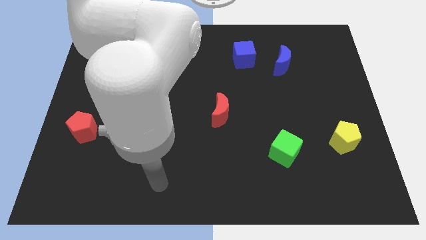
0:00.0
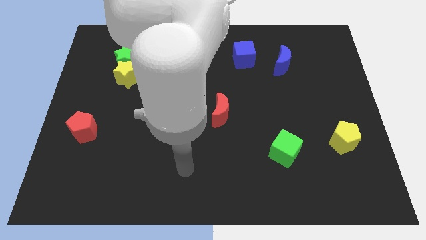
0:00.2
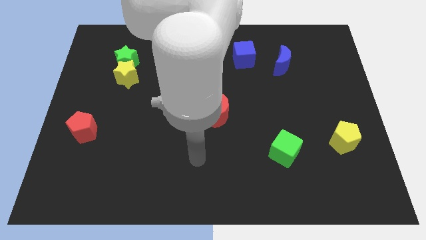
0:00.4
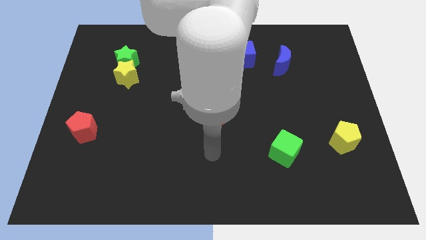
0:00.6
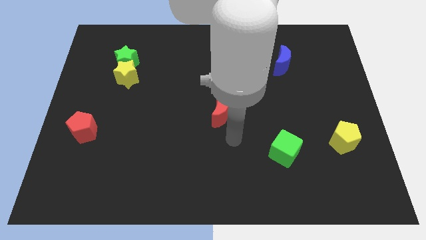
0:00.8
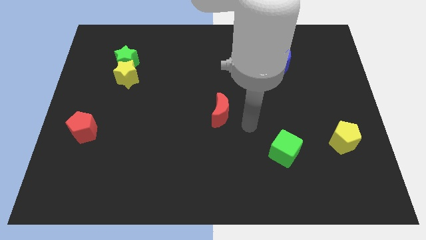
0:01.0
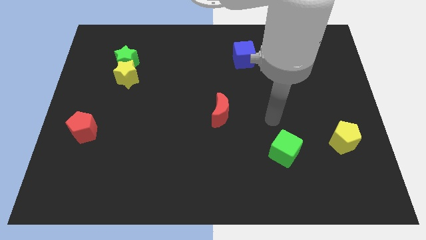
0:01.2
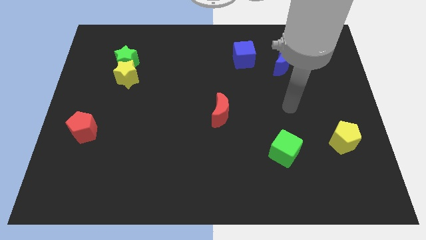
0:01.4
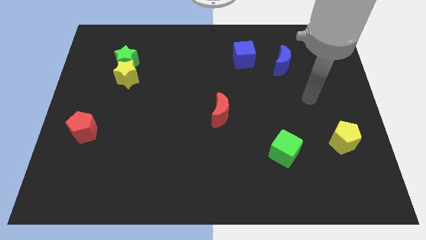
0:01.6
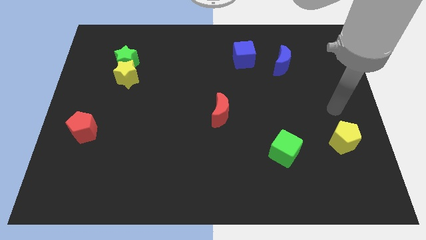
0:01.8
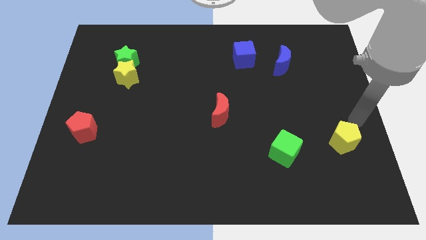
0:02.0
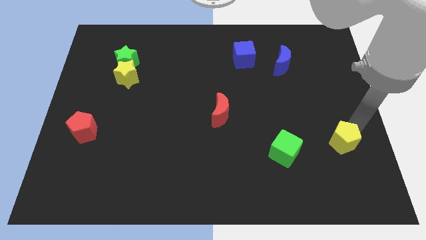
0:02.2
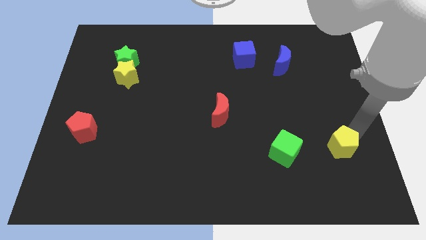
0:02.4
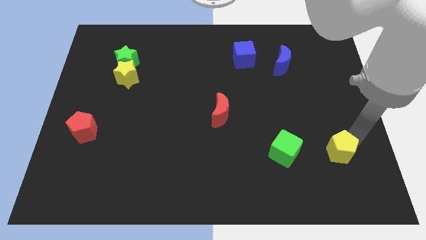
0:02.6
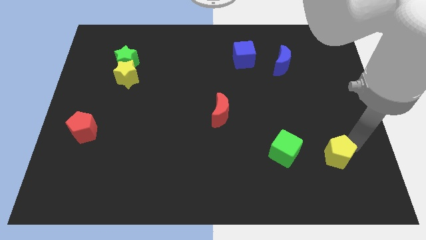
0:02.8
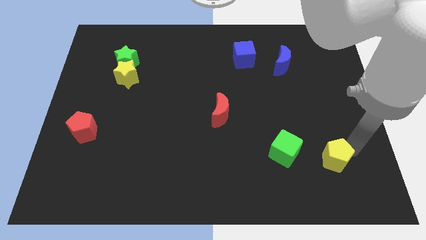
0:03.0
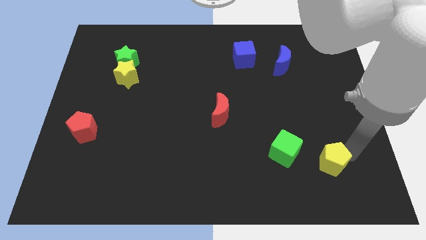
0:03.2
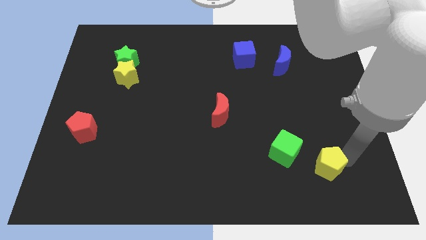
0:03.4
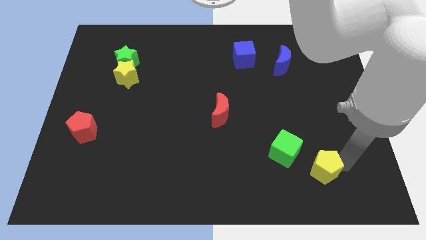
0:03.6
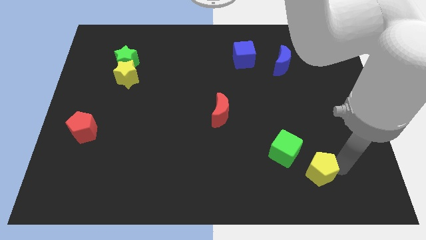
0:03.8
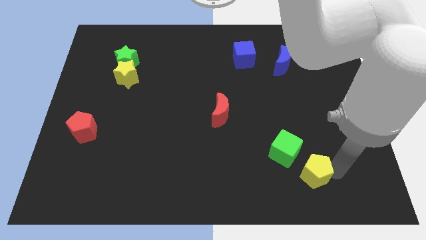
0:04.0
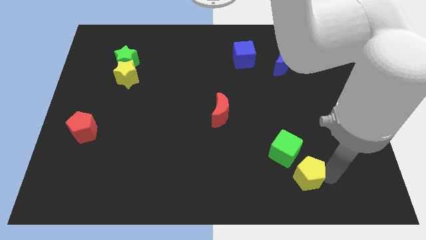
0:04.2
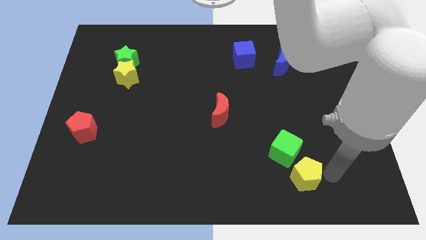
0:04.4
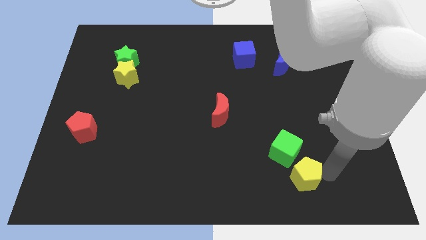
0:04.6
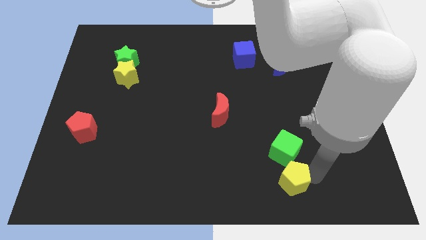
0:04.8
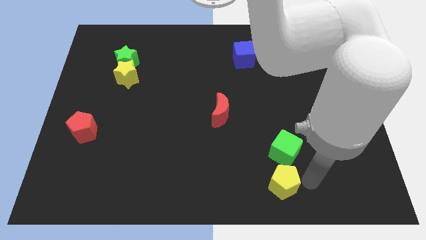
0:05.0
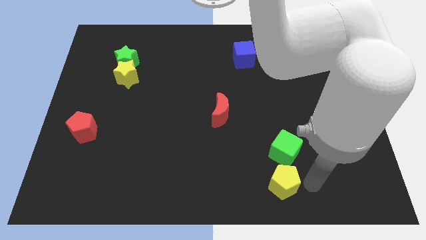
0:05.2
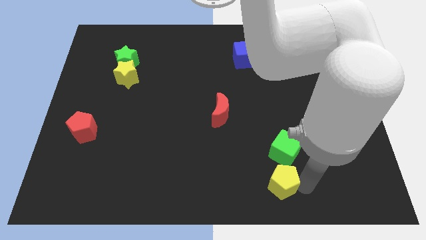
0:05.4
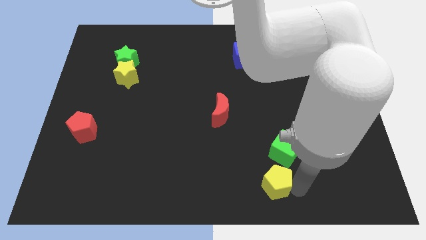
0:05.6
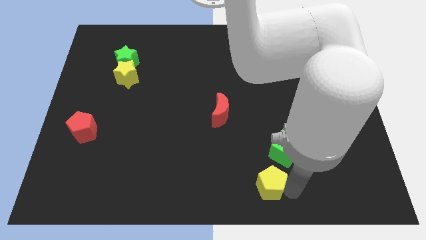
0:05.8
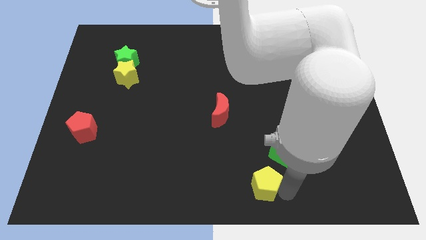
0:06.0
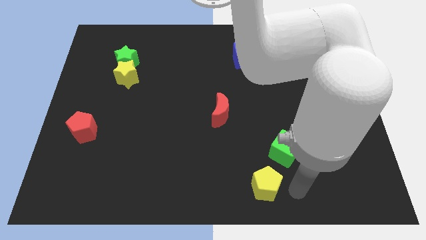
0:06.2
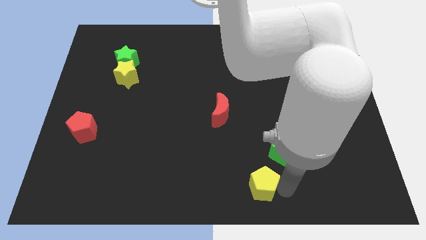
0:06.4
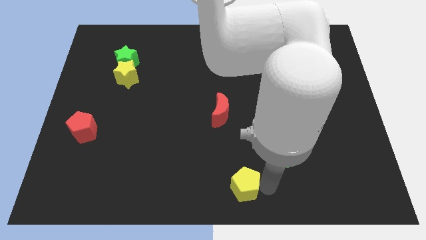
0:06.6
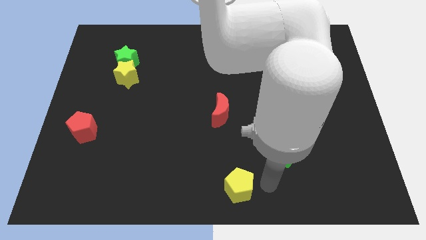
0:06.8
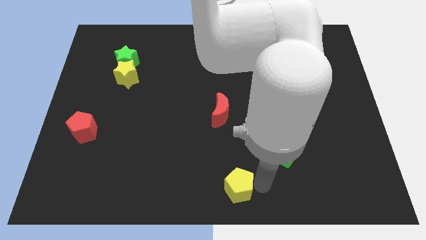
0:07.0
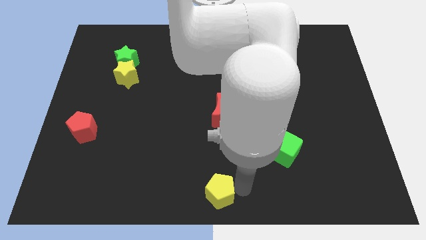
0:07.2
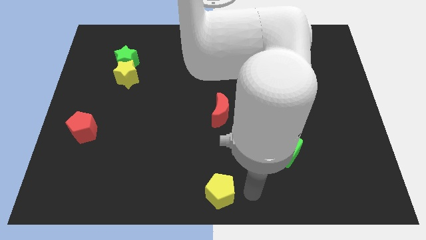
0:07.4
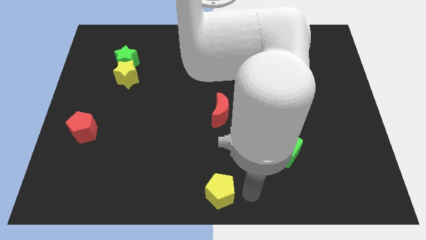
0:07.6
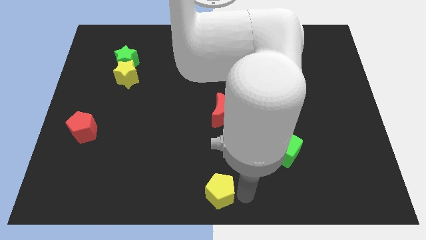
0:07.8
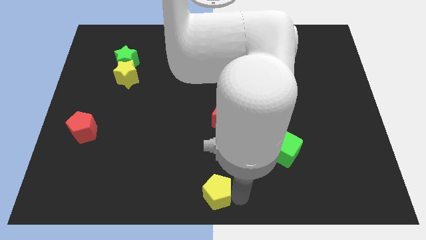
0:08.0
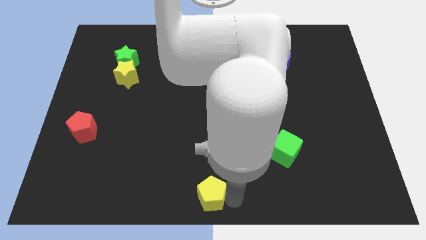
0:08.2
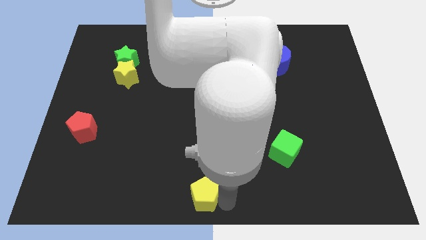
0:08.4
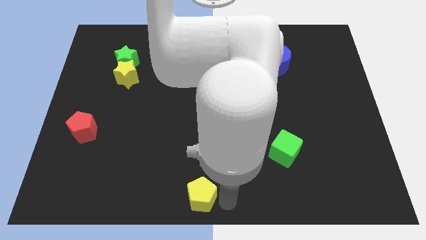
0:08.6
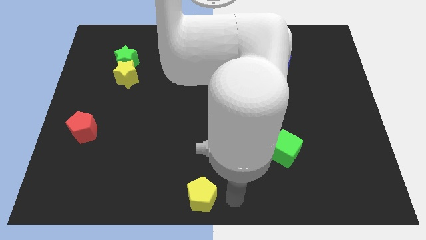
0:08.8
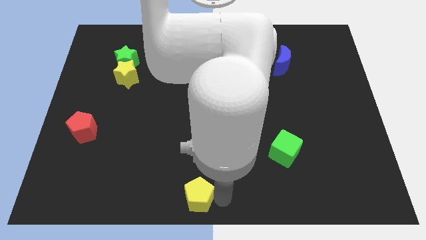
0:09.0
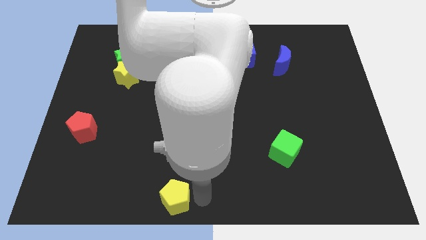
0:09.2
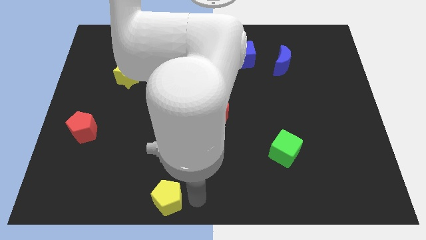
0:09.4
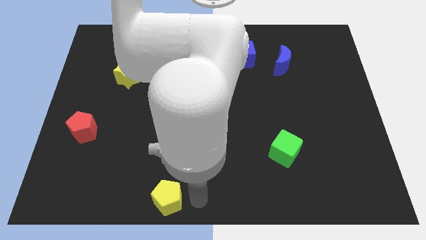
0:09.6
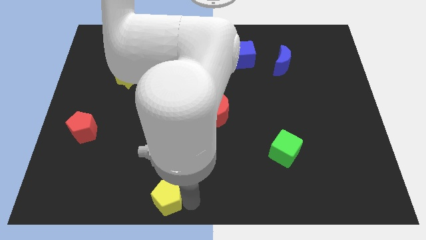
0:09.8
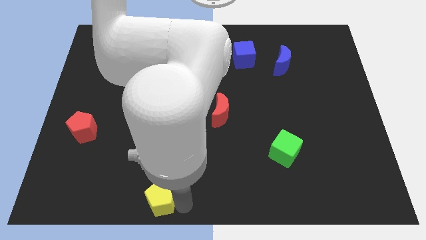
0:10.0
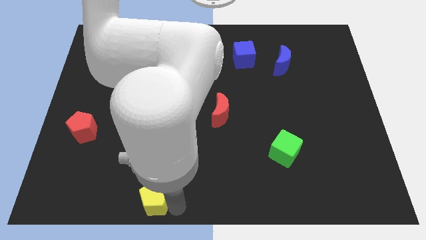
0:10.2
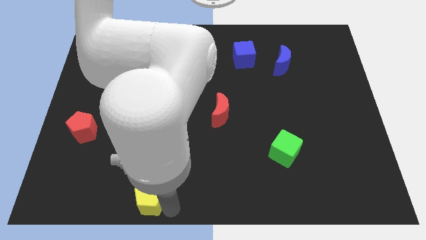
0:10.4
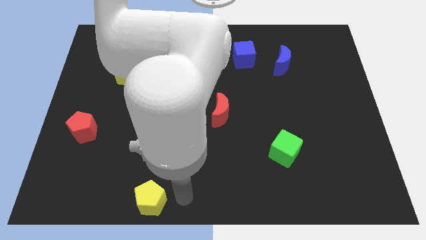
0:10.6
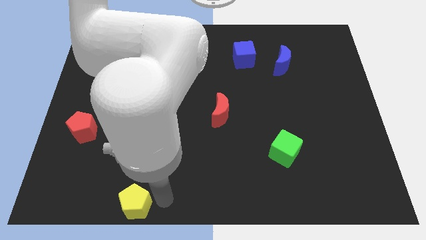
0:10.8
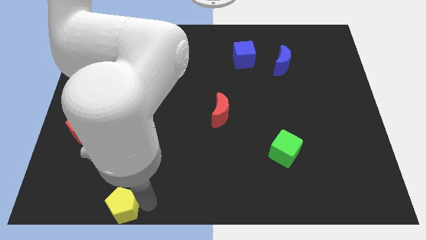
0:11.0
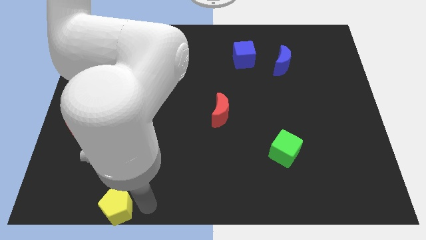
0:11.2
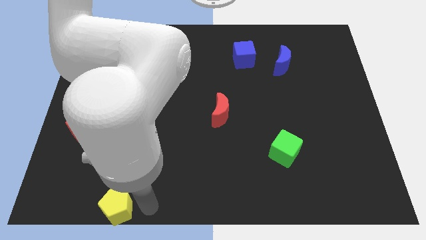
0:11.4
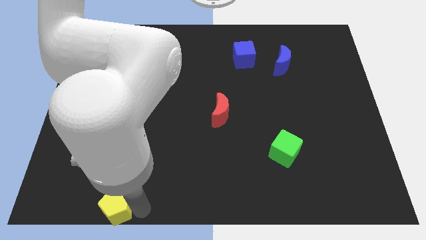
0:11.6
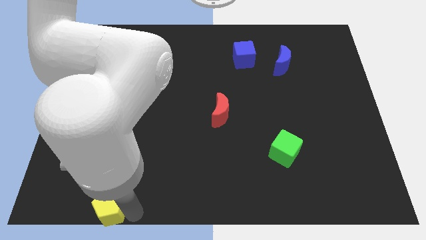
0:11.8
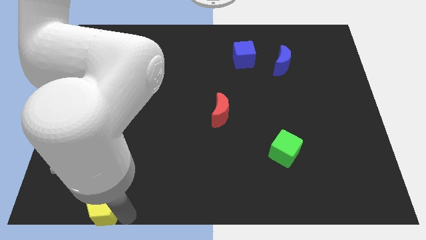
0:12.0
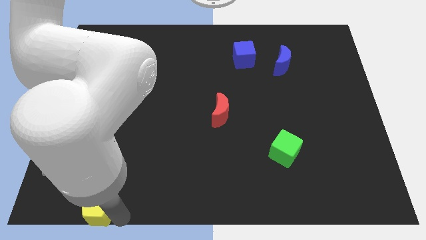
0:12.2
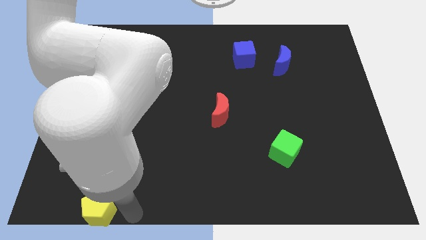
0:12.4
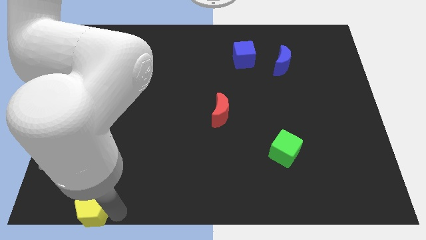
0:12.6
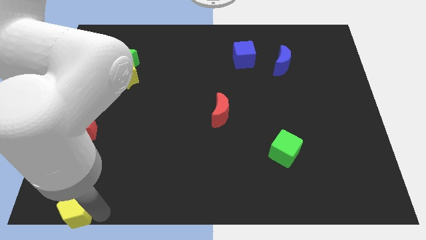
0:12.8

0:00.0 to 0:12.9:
slide the yellow pentagon to the bottom left corner
